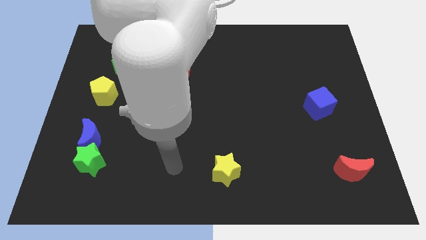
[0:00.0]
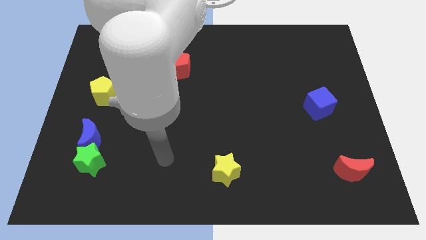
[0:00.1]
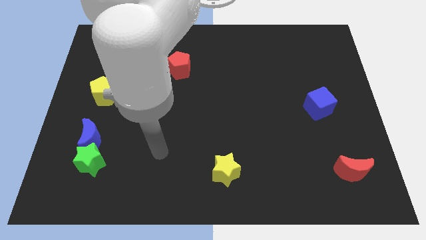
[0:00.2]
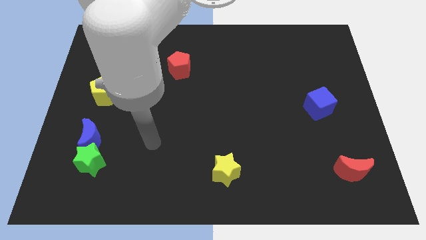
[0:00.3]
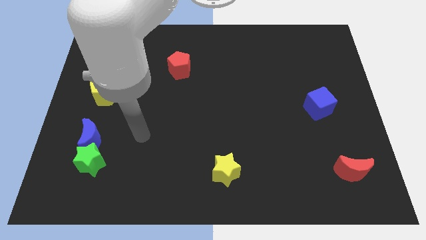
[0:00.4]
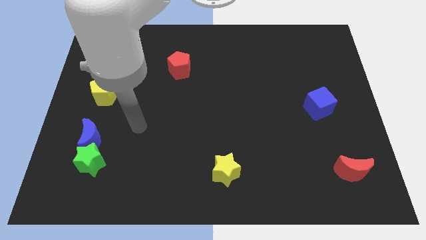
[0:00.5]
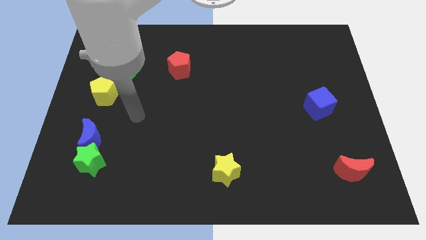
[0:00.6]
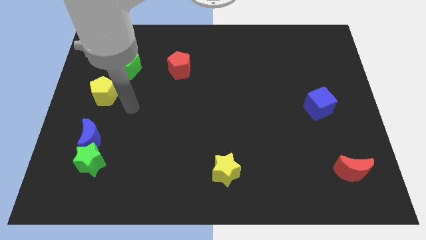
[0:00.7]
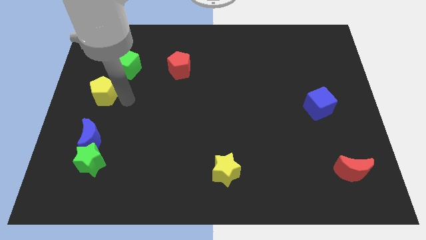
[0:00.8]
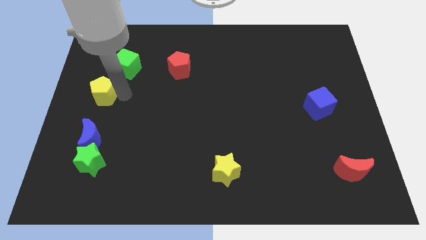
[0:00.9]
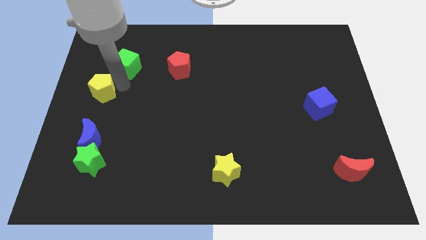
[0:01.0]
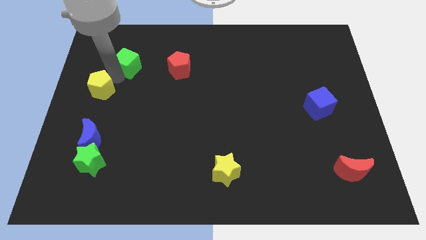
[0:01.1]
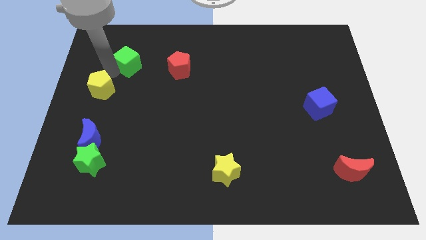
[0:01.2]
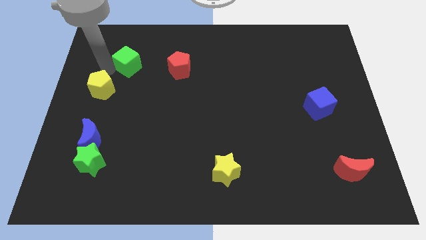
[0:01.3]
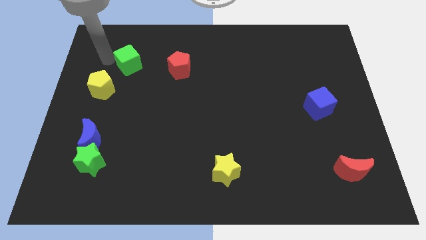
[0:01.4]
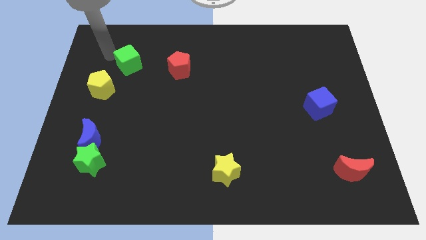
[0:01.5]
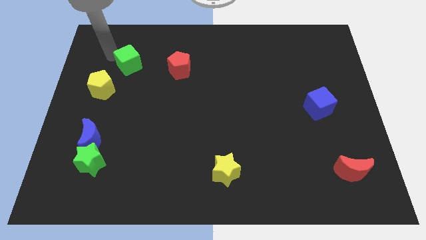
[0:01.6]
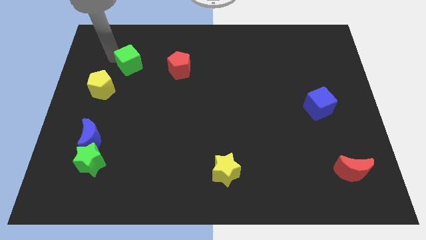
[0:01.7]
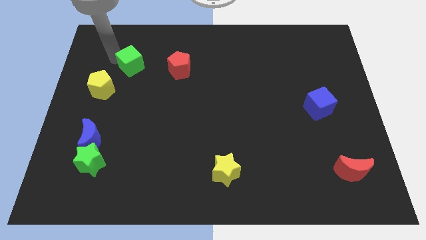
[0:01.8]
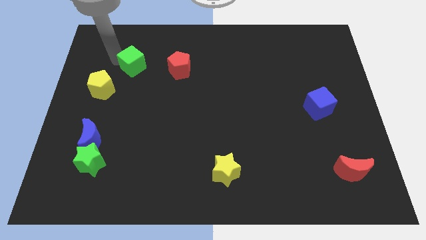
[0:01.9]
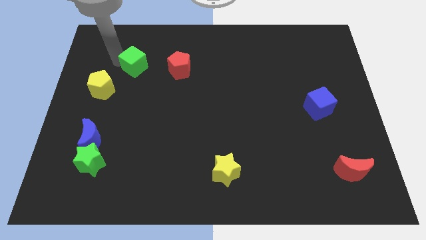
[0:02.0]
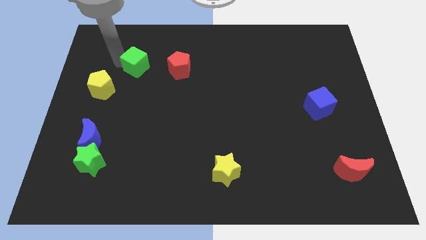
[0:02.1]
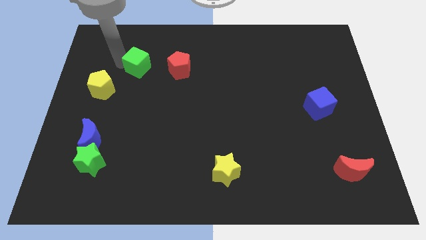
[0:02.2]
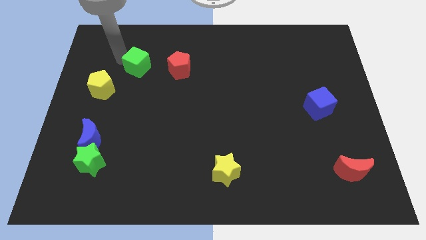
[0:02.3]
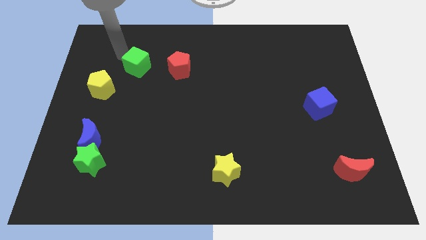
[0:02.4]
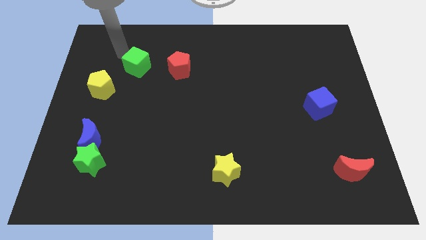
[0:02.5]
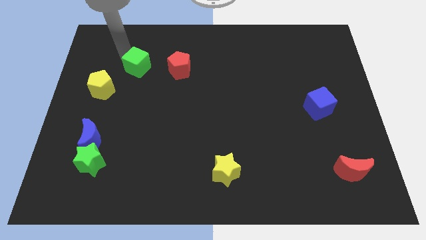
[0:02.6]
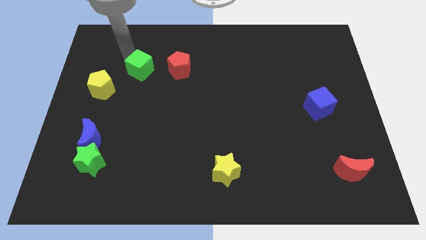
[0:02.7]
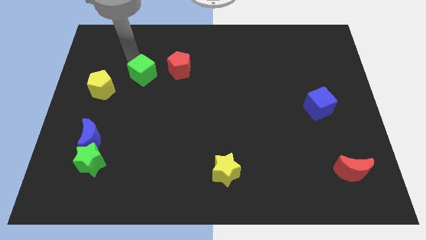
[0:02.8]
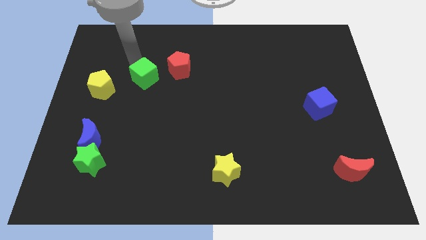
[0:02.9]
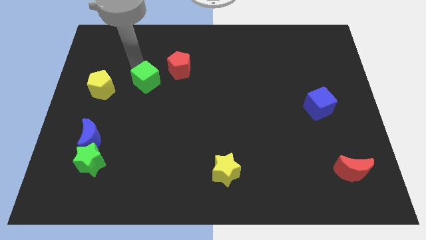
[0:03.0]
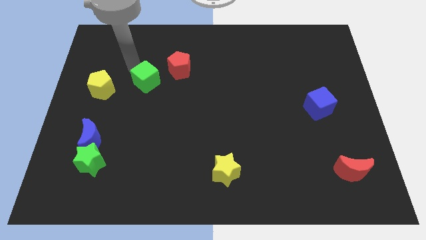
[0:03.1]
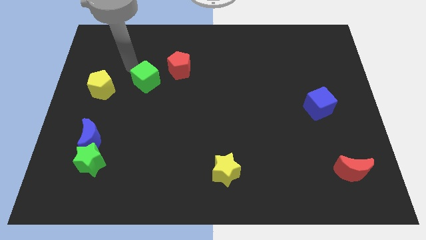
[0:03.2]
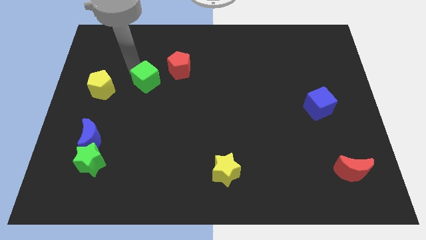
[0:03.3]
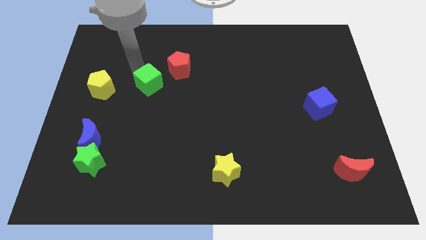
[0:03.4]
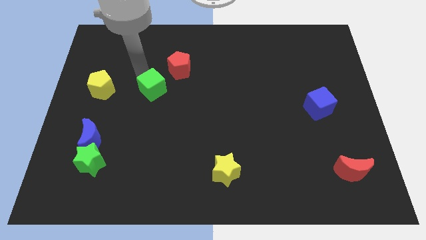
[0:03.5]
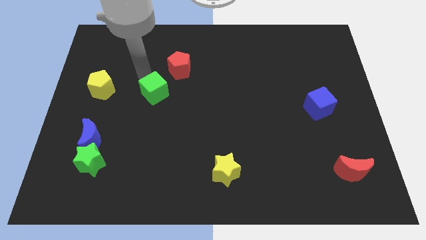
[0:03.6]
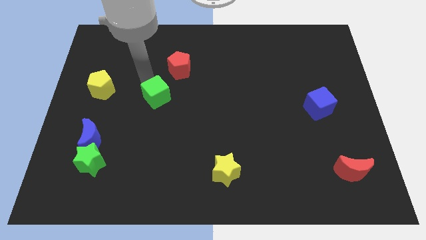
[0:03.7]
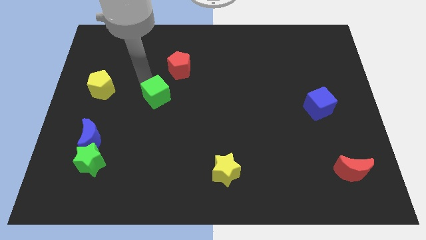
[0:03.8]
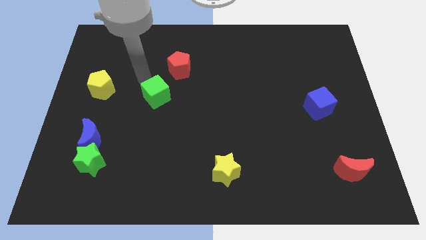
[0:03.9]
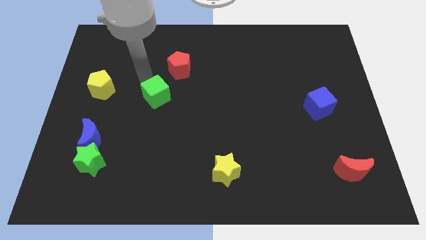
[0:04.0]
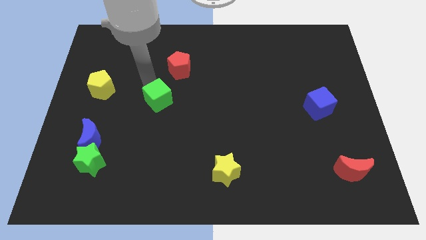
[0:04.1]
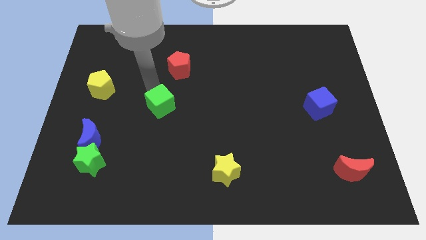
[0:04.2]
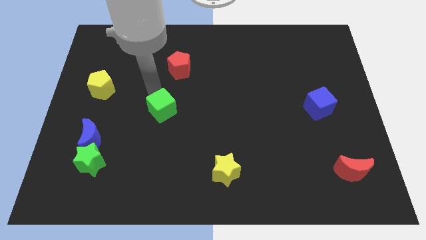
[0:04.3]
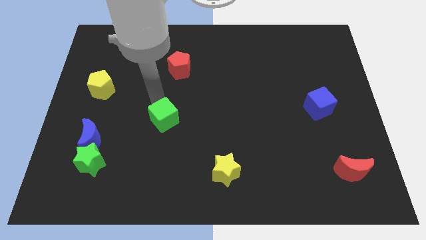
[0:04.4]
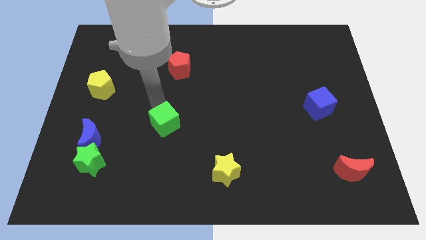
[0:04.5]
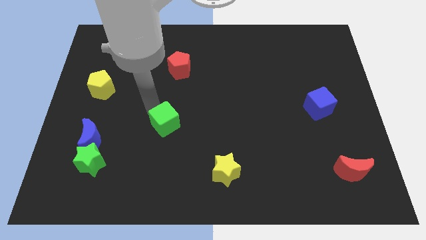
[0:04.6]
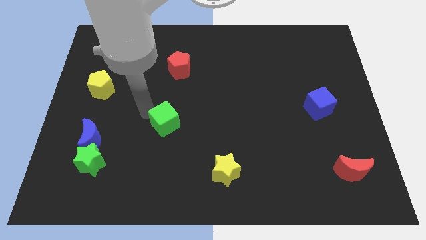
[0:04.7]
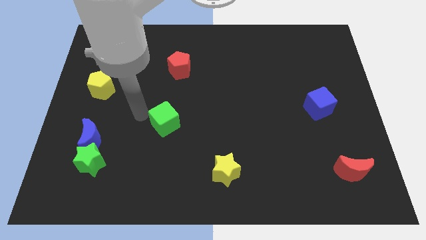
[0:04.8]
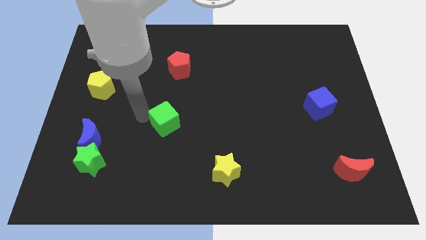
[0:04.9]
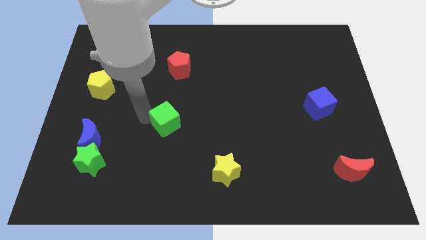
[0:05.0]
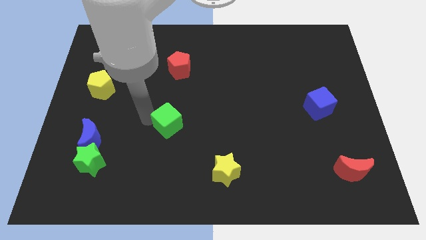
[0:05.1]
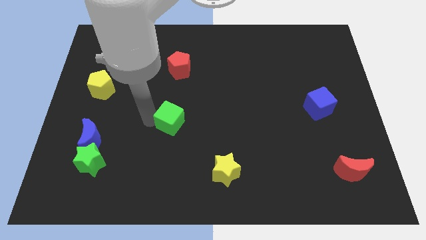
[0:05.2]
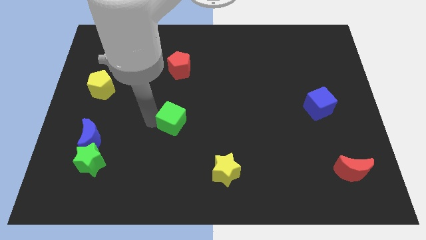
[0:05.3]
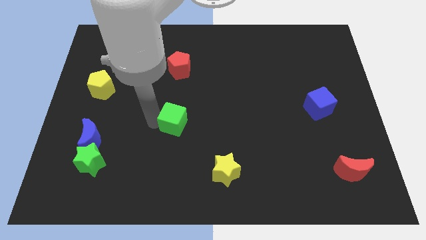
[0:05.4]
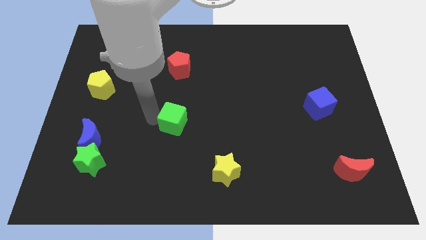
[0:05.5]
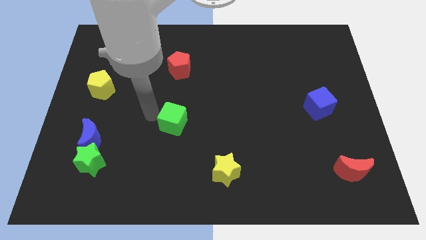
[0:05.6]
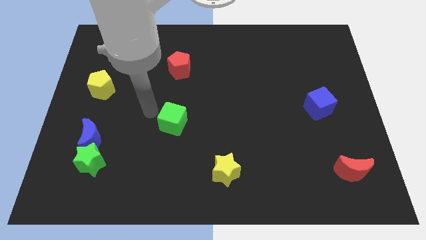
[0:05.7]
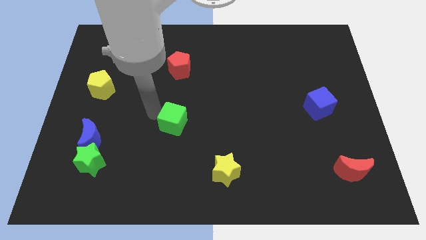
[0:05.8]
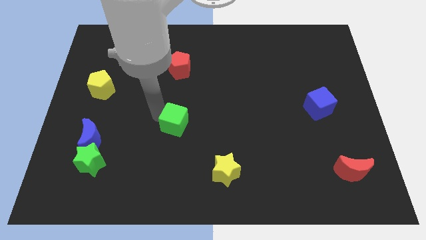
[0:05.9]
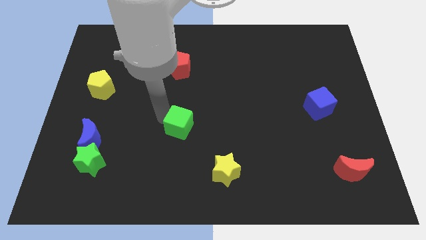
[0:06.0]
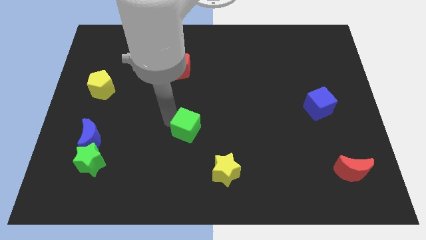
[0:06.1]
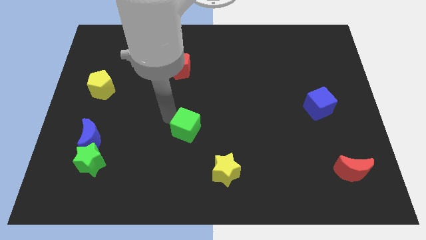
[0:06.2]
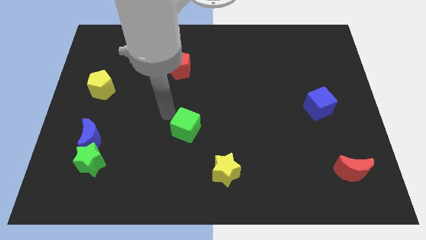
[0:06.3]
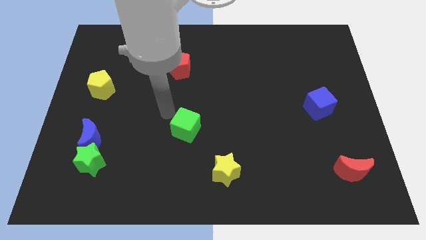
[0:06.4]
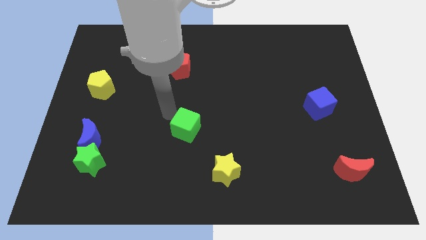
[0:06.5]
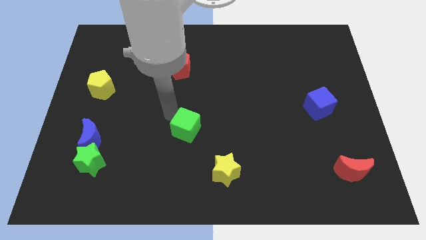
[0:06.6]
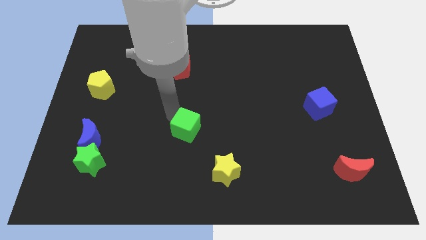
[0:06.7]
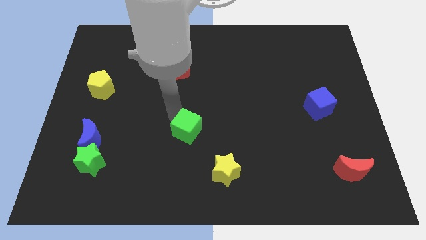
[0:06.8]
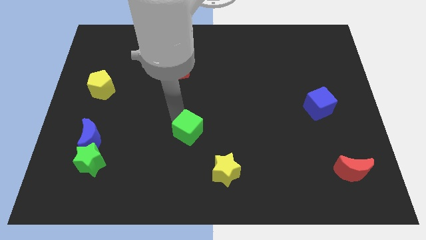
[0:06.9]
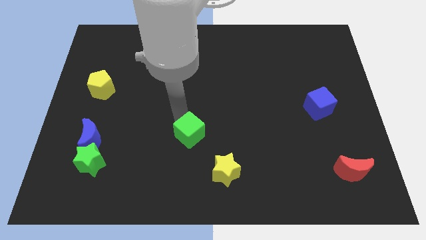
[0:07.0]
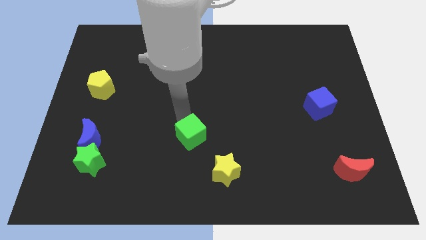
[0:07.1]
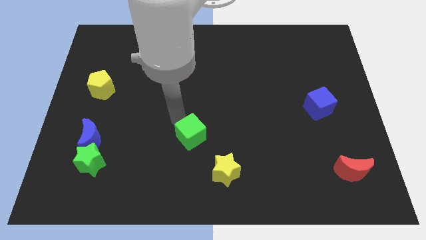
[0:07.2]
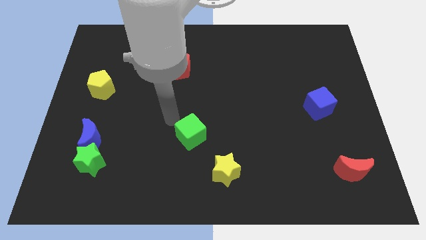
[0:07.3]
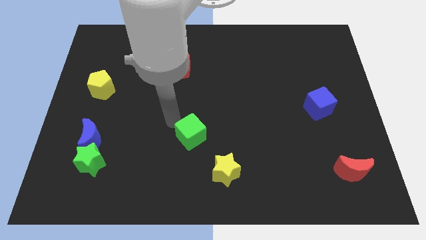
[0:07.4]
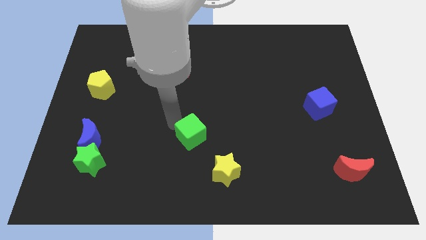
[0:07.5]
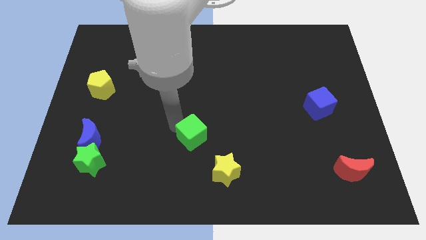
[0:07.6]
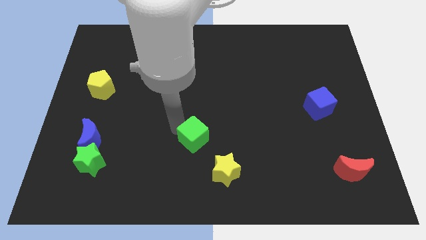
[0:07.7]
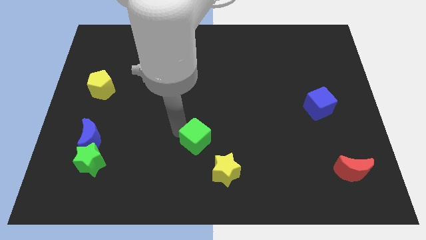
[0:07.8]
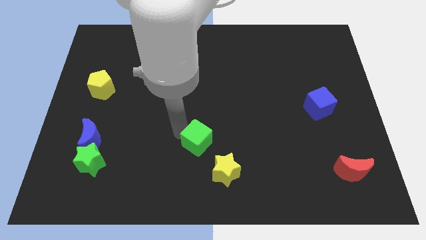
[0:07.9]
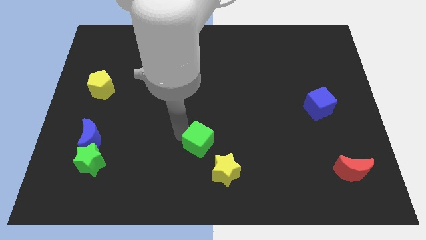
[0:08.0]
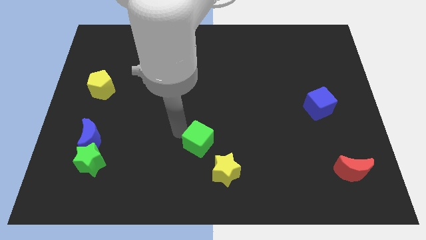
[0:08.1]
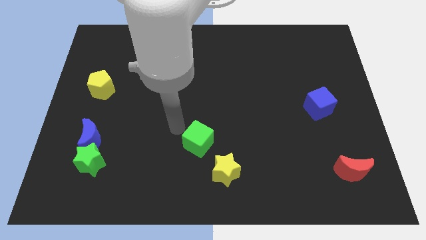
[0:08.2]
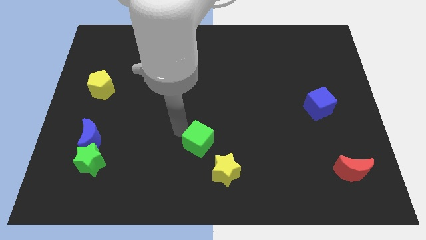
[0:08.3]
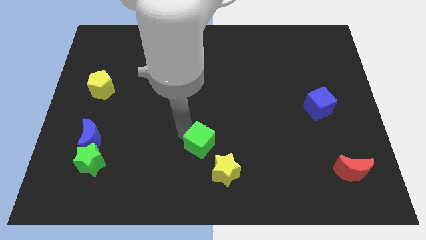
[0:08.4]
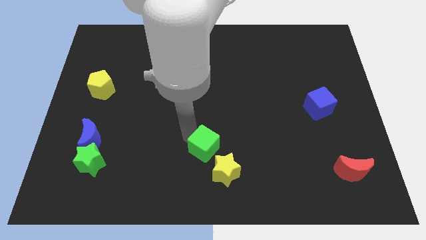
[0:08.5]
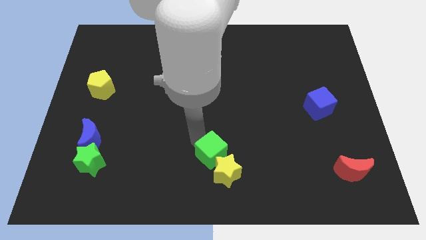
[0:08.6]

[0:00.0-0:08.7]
push the green cube next to the yellow star
